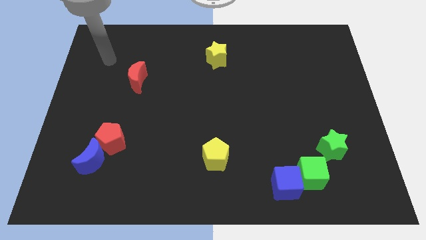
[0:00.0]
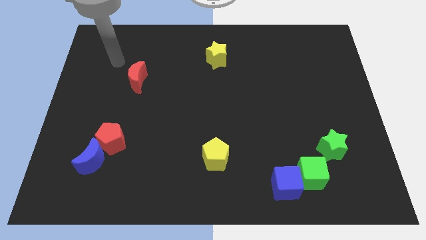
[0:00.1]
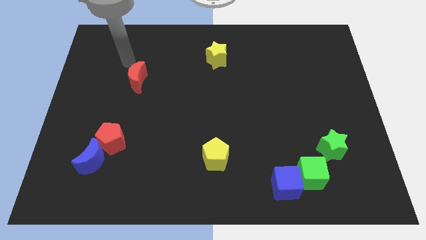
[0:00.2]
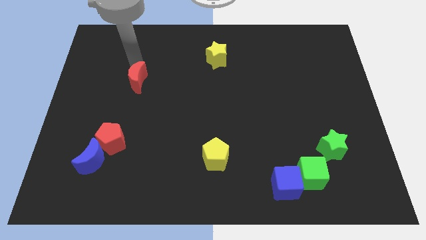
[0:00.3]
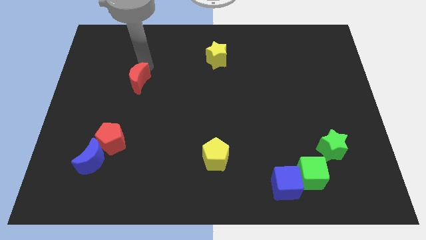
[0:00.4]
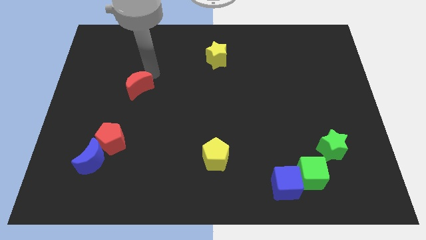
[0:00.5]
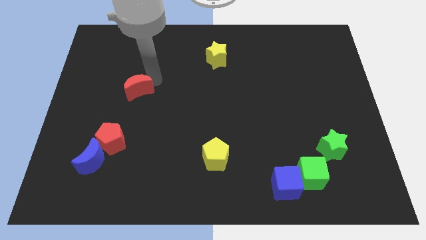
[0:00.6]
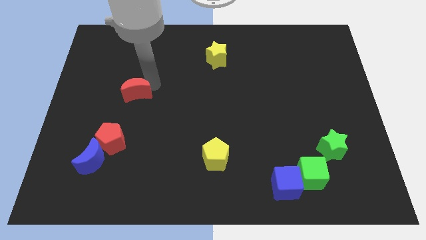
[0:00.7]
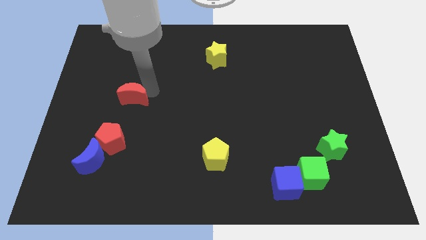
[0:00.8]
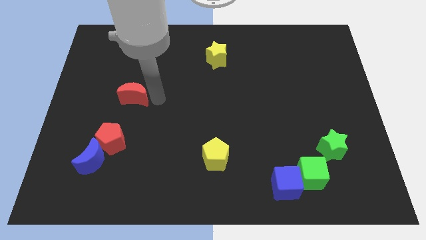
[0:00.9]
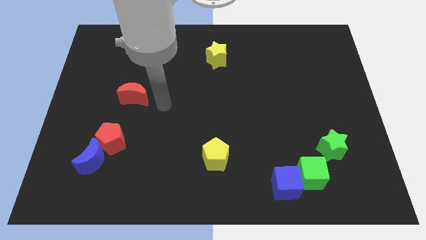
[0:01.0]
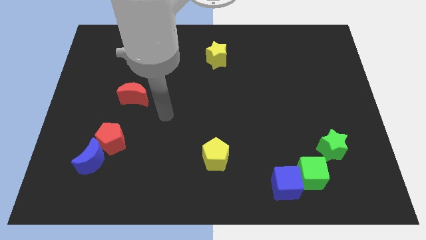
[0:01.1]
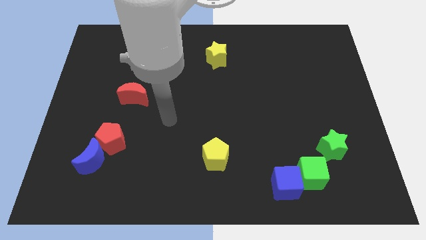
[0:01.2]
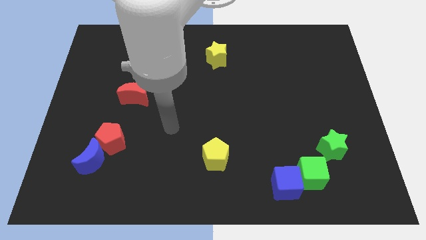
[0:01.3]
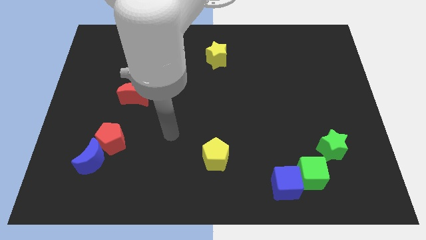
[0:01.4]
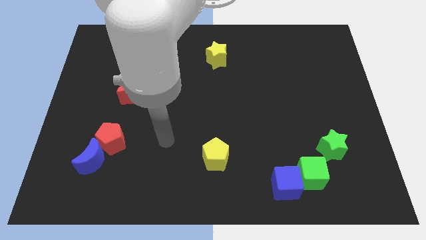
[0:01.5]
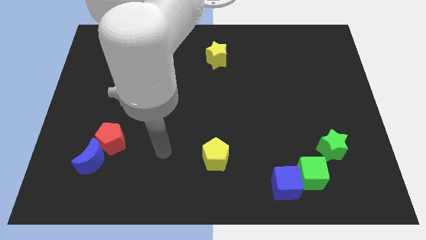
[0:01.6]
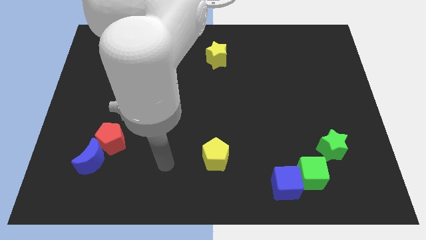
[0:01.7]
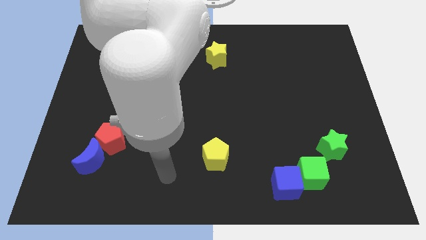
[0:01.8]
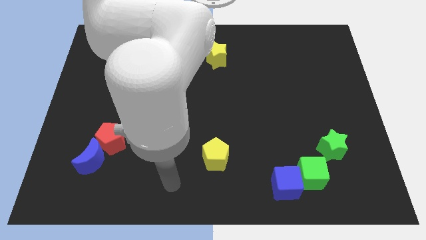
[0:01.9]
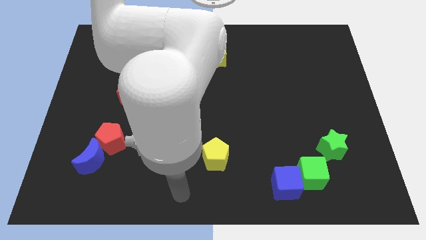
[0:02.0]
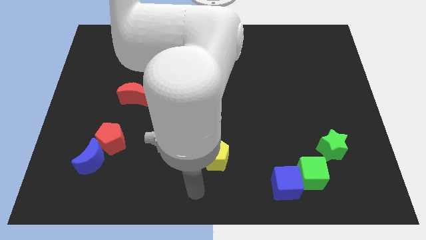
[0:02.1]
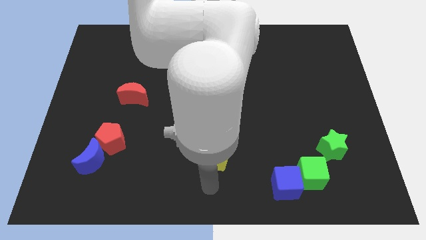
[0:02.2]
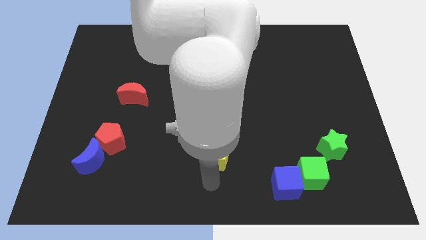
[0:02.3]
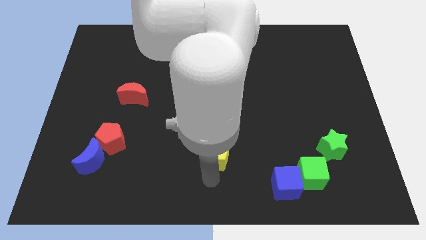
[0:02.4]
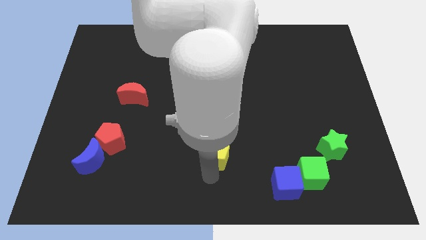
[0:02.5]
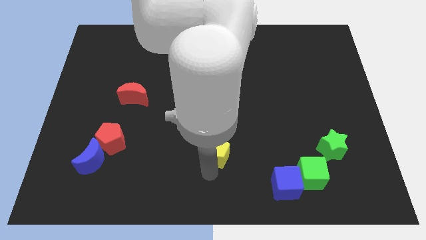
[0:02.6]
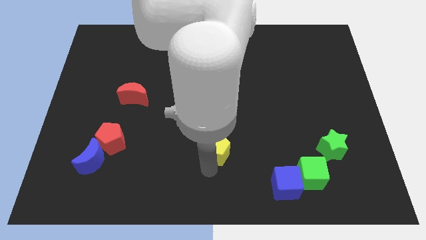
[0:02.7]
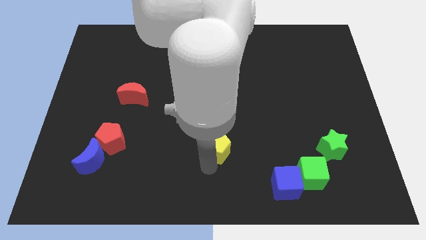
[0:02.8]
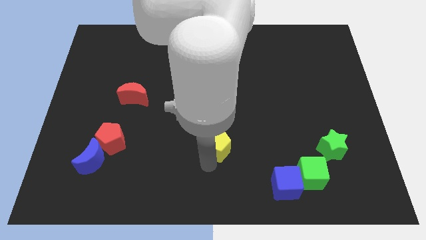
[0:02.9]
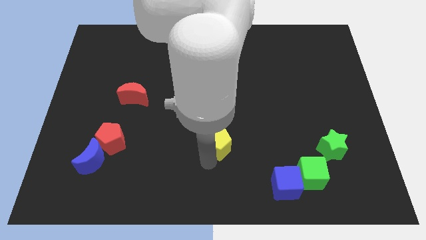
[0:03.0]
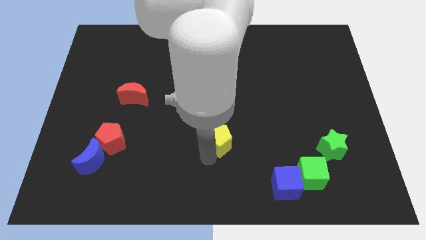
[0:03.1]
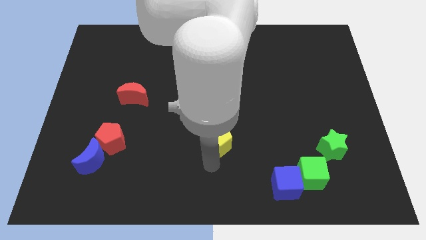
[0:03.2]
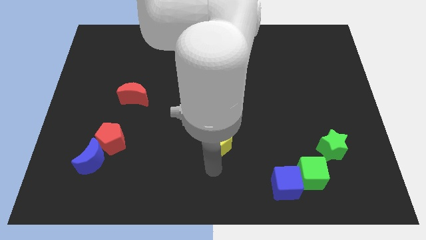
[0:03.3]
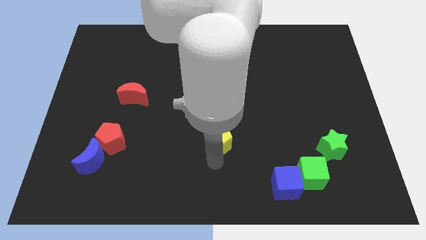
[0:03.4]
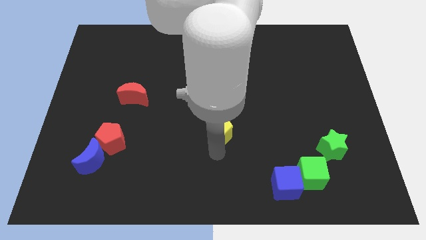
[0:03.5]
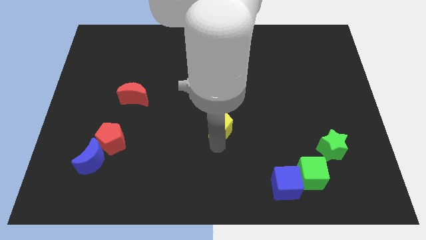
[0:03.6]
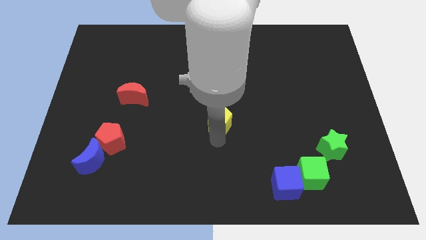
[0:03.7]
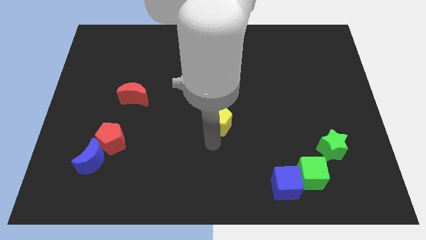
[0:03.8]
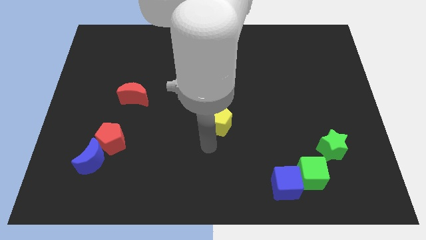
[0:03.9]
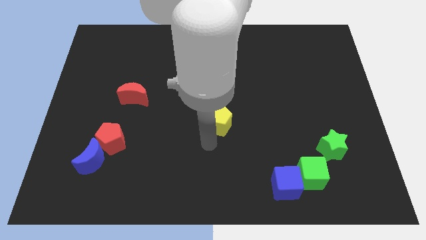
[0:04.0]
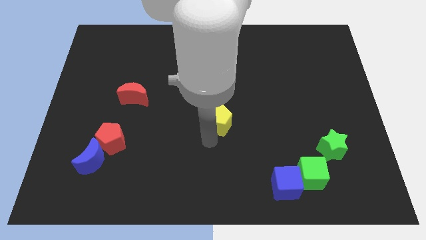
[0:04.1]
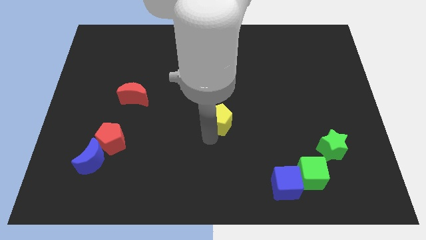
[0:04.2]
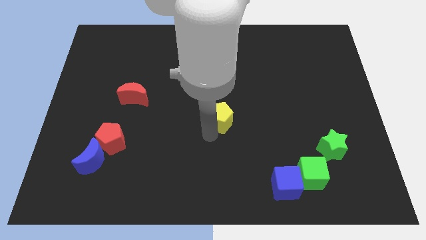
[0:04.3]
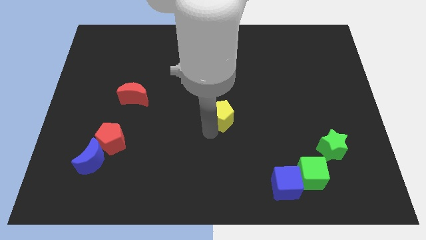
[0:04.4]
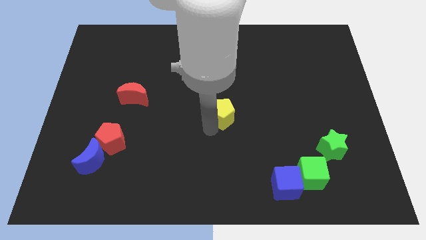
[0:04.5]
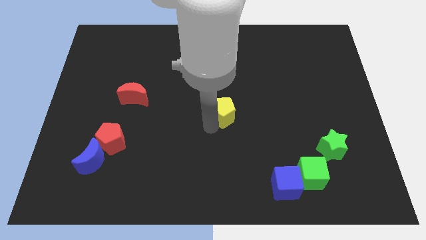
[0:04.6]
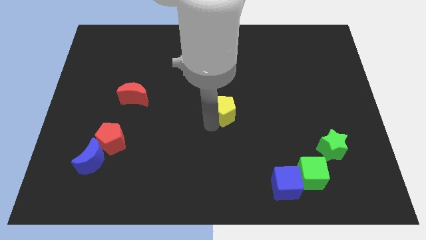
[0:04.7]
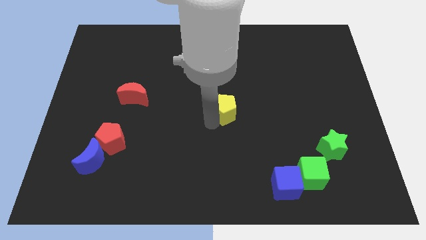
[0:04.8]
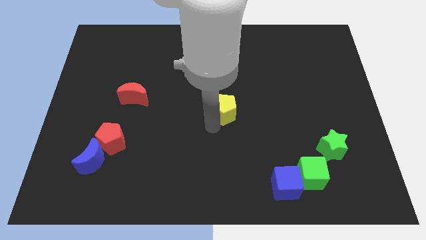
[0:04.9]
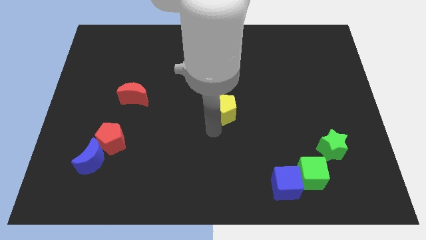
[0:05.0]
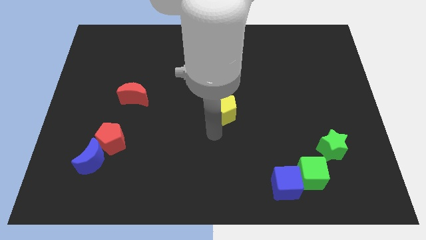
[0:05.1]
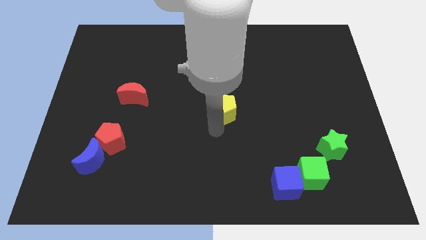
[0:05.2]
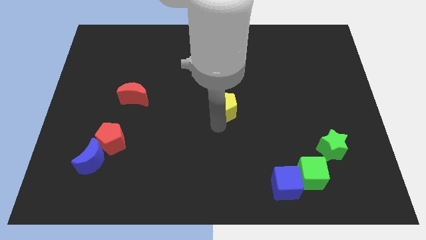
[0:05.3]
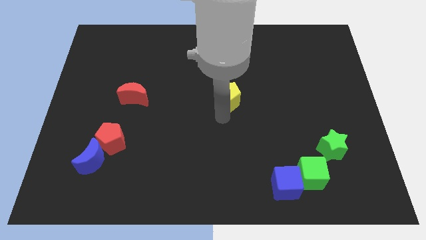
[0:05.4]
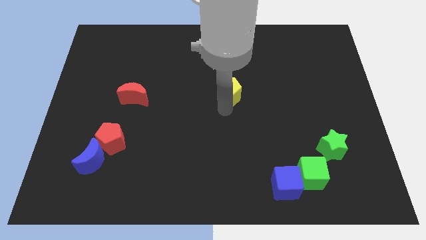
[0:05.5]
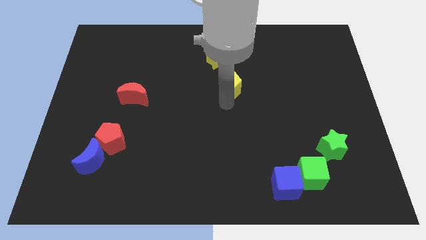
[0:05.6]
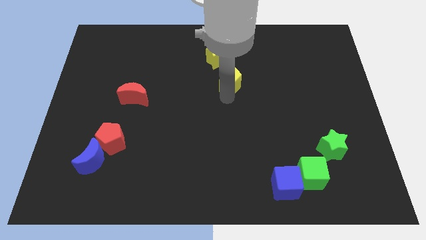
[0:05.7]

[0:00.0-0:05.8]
put the yellow pentagon to the bottom right of the yellow star

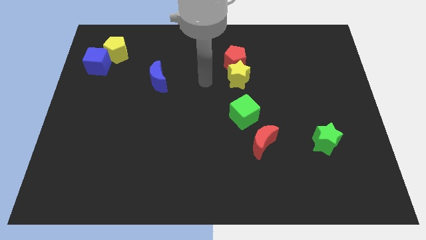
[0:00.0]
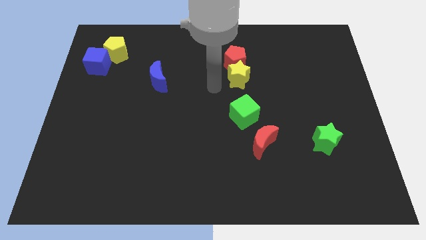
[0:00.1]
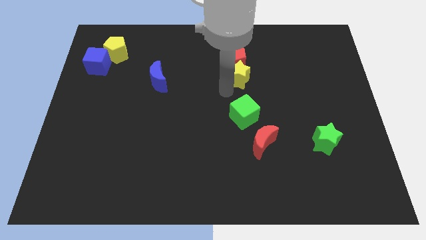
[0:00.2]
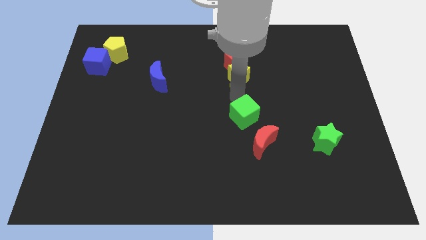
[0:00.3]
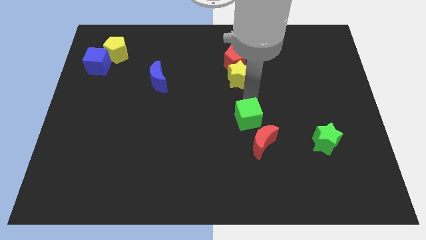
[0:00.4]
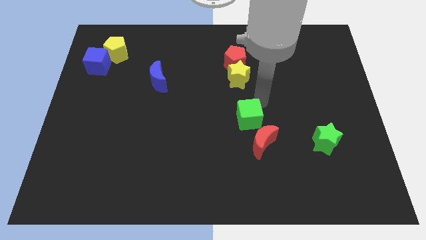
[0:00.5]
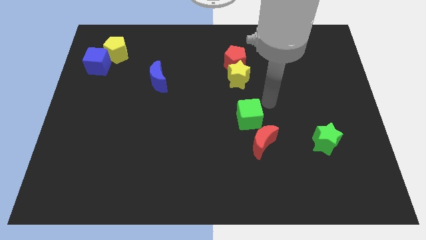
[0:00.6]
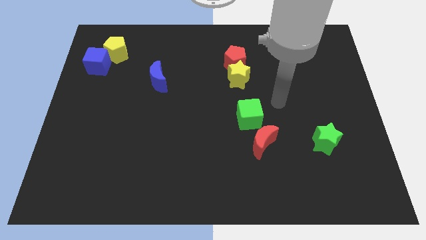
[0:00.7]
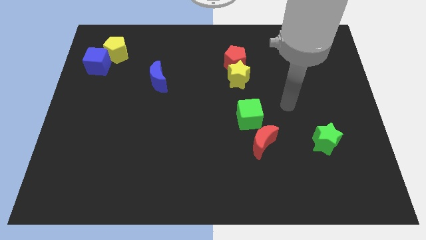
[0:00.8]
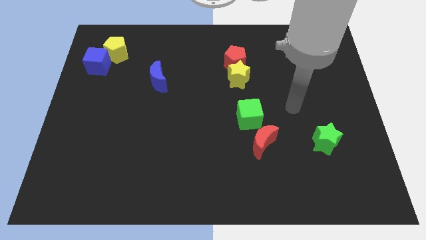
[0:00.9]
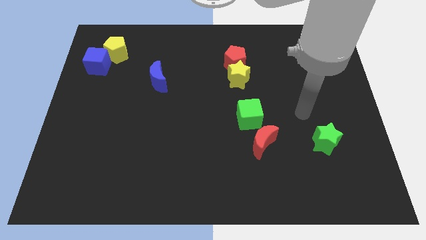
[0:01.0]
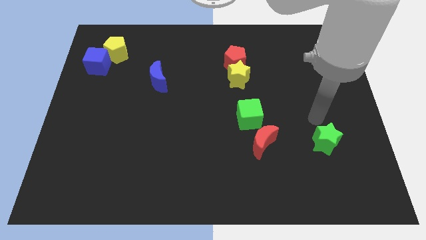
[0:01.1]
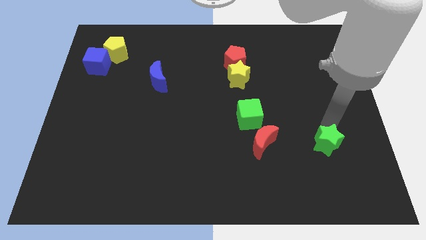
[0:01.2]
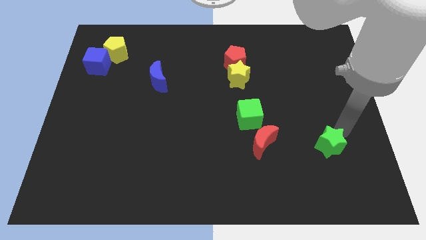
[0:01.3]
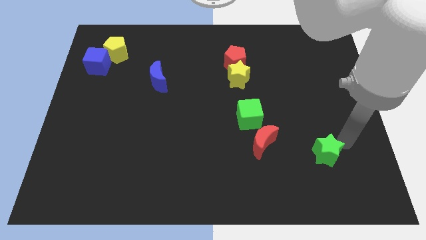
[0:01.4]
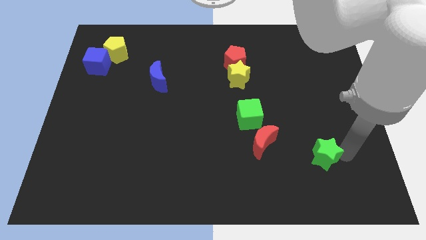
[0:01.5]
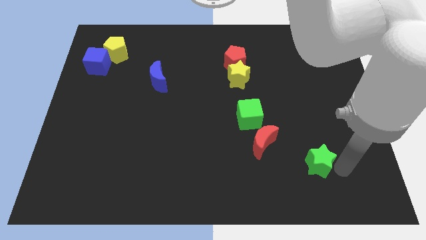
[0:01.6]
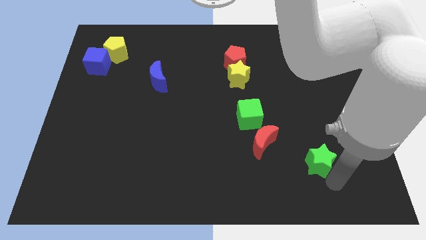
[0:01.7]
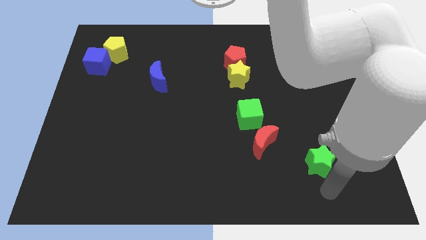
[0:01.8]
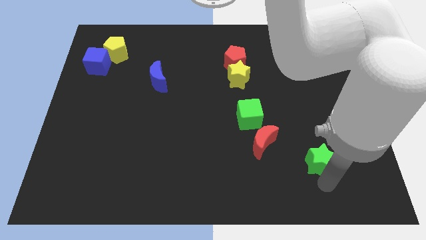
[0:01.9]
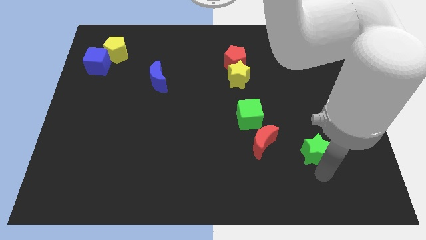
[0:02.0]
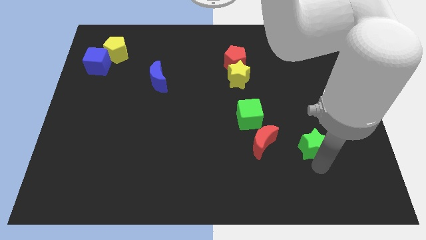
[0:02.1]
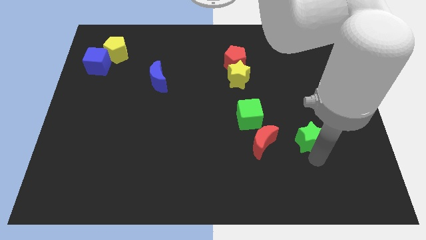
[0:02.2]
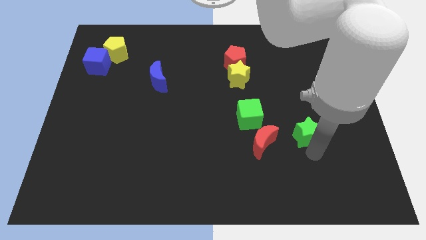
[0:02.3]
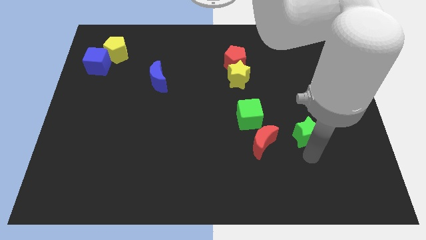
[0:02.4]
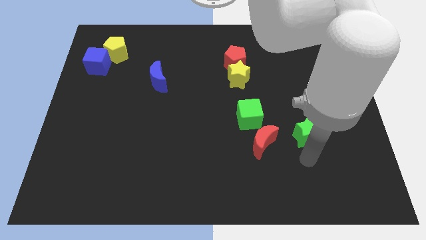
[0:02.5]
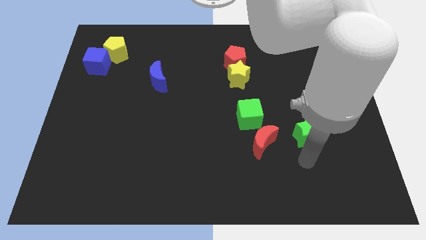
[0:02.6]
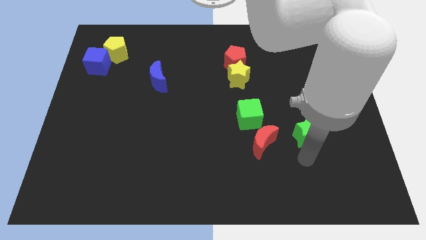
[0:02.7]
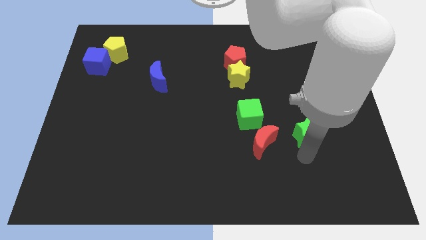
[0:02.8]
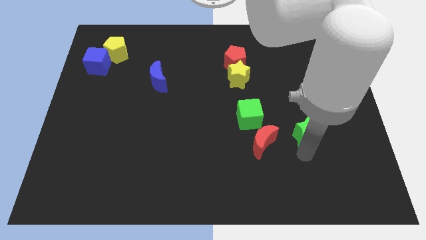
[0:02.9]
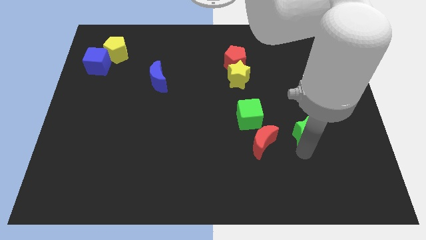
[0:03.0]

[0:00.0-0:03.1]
move the green star right of the green cube
